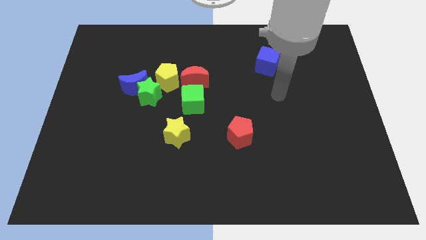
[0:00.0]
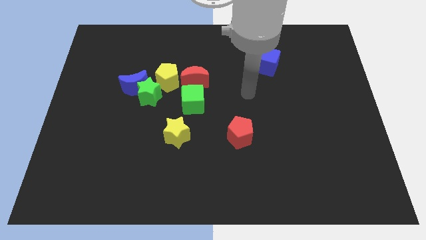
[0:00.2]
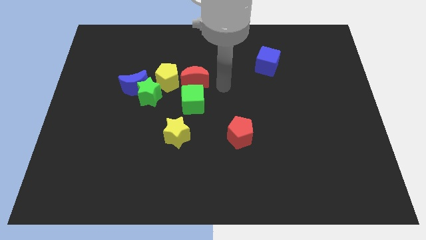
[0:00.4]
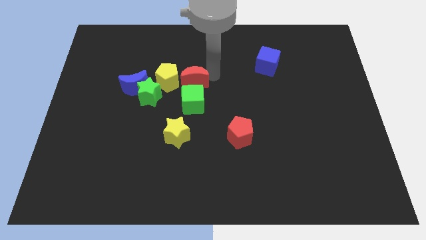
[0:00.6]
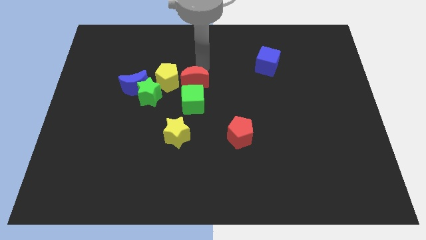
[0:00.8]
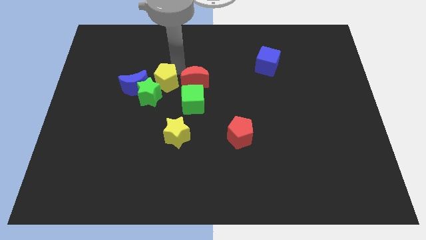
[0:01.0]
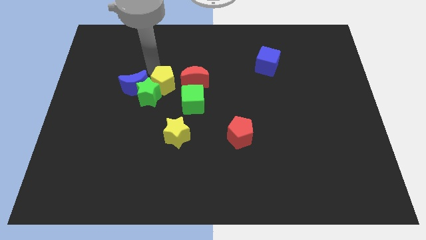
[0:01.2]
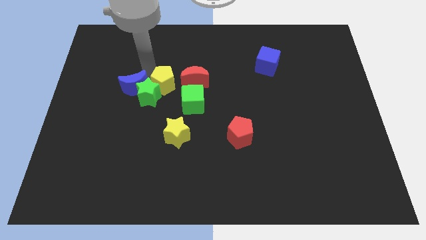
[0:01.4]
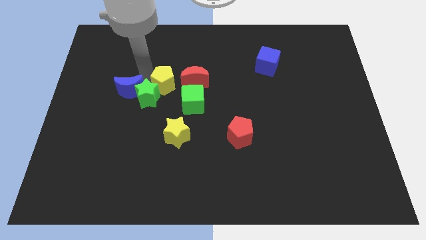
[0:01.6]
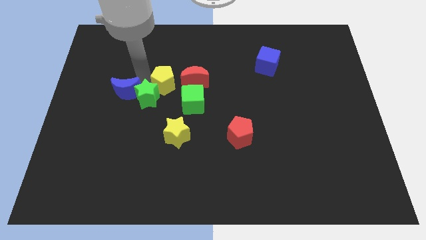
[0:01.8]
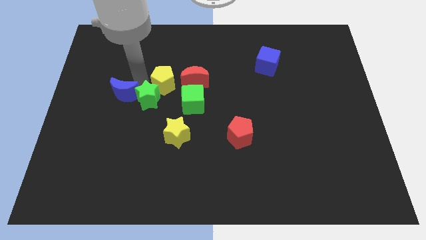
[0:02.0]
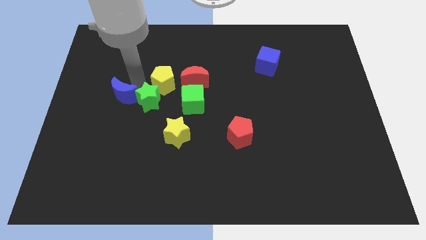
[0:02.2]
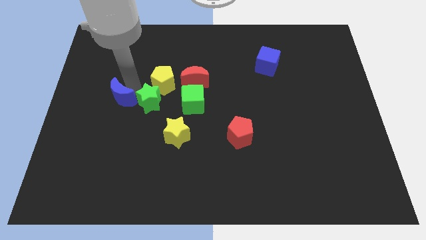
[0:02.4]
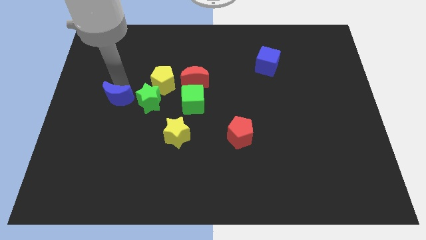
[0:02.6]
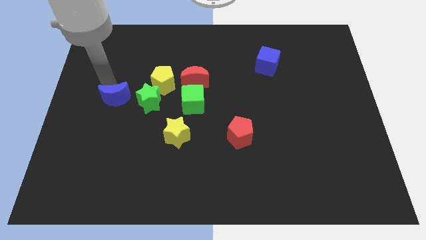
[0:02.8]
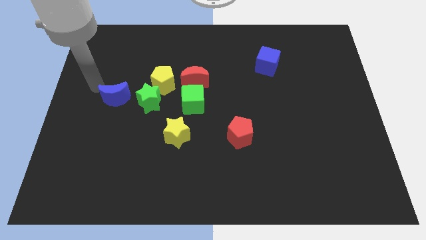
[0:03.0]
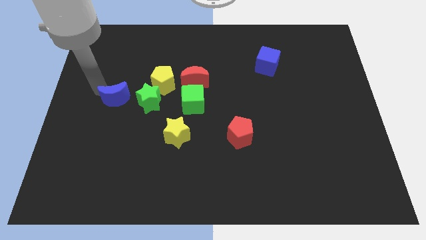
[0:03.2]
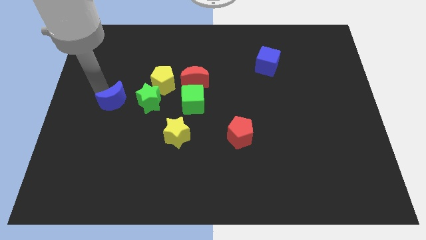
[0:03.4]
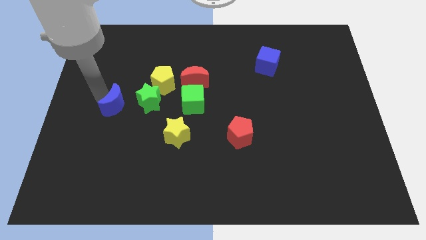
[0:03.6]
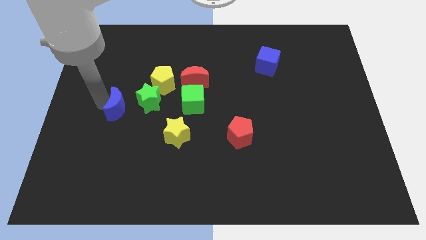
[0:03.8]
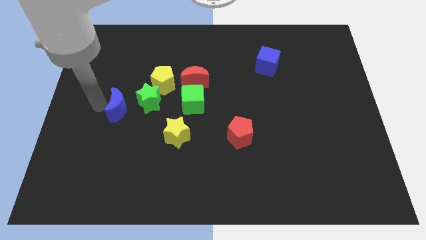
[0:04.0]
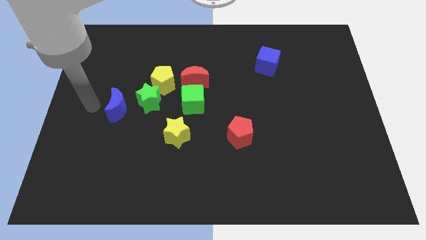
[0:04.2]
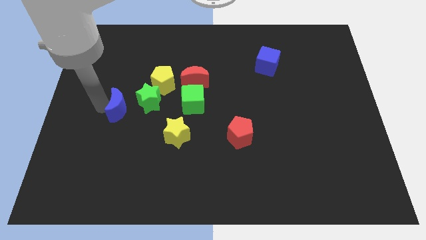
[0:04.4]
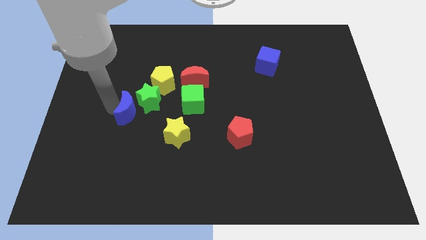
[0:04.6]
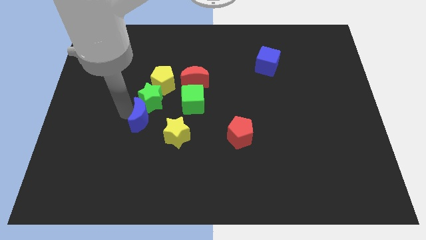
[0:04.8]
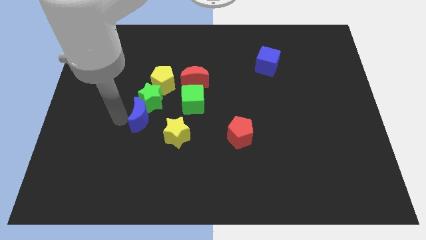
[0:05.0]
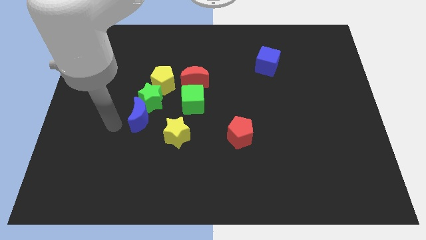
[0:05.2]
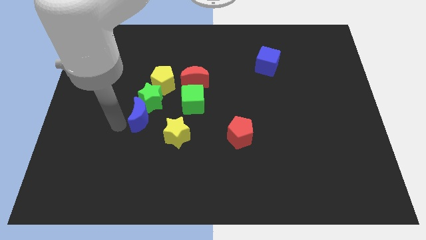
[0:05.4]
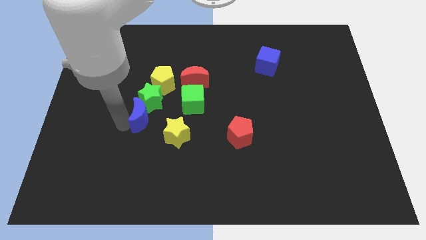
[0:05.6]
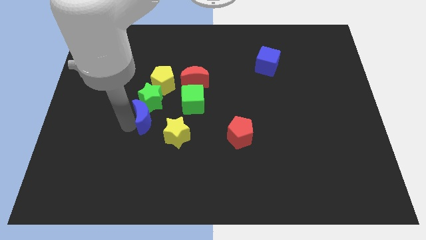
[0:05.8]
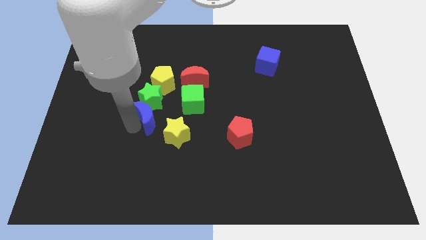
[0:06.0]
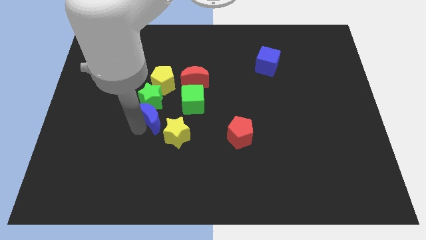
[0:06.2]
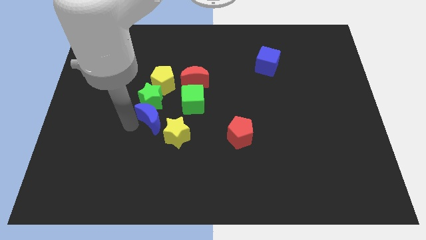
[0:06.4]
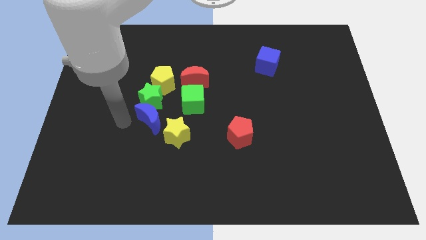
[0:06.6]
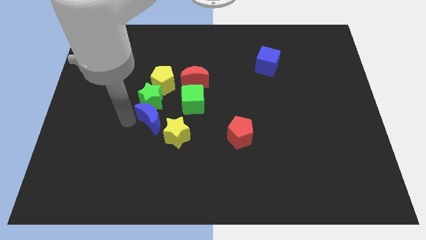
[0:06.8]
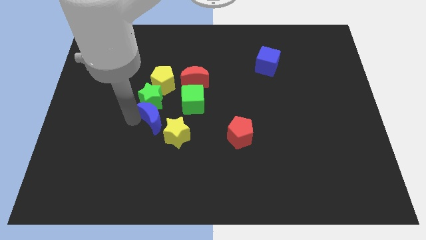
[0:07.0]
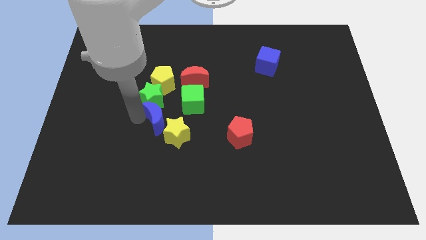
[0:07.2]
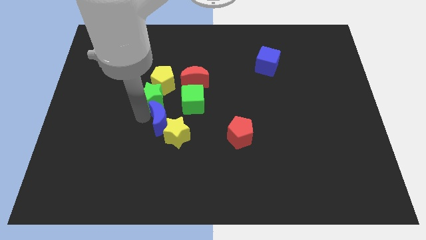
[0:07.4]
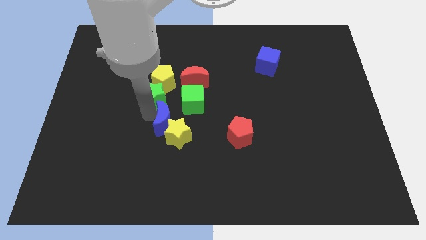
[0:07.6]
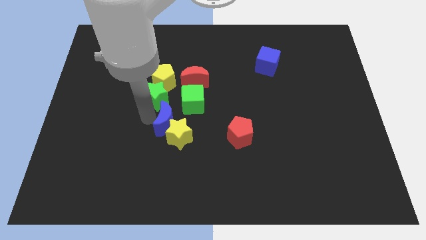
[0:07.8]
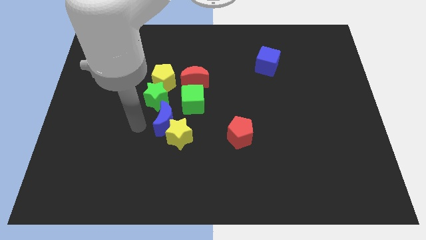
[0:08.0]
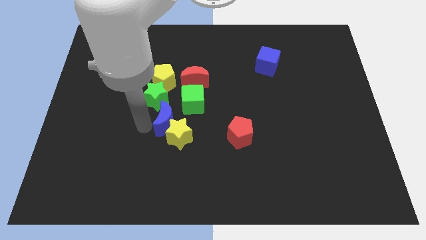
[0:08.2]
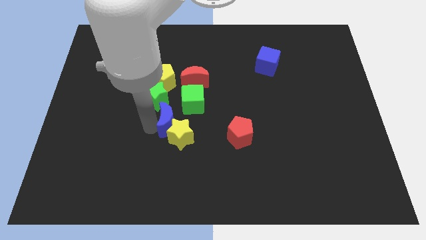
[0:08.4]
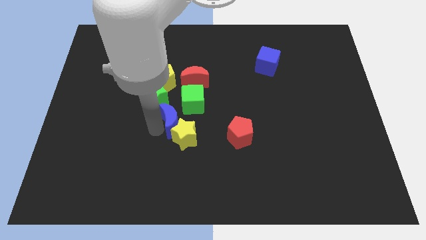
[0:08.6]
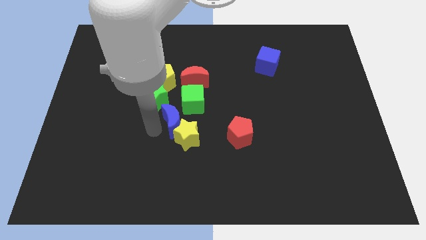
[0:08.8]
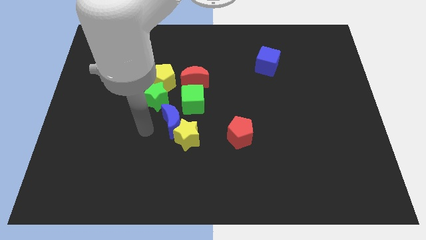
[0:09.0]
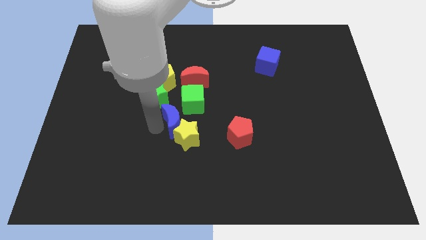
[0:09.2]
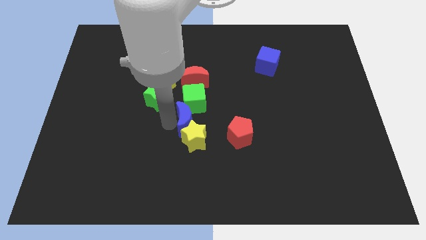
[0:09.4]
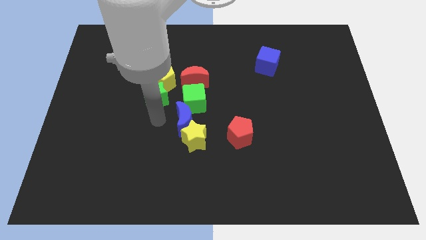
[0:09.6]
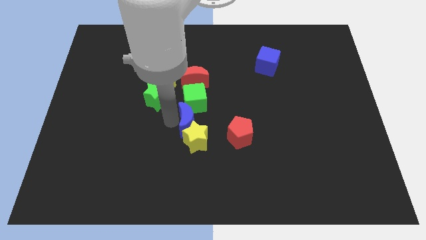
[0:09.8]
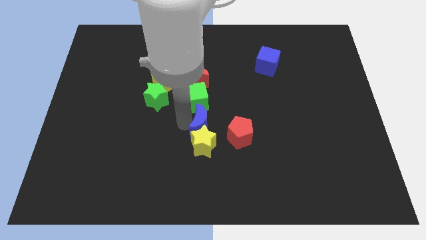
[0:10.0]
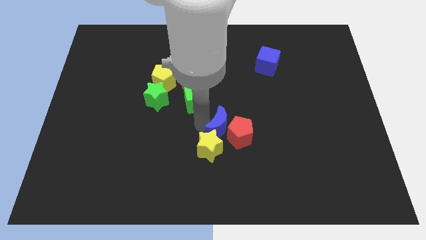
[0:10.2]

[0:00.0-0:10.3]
slide the blue moon close to the red pentagon

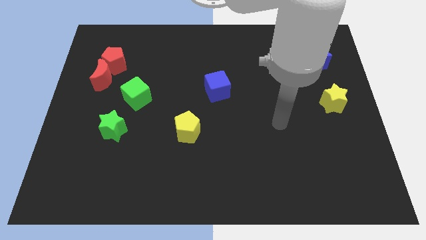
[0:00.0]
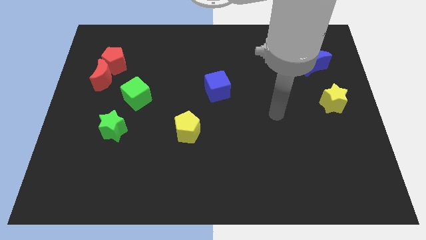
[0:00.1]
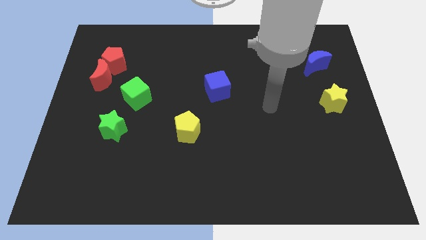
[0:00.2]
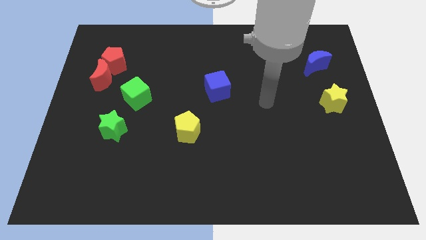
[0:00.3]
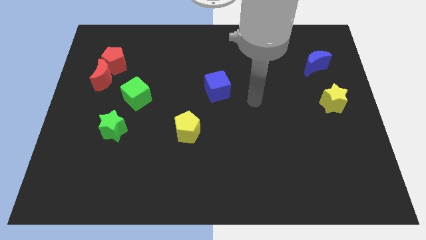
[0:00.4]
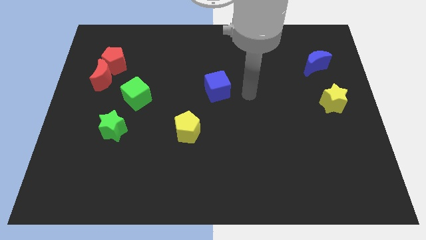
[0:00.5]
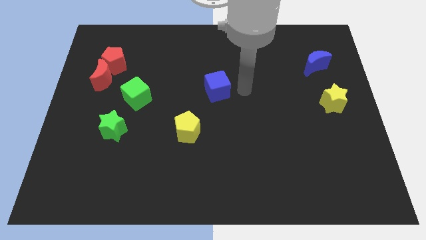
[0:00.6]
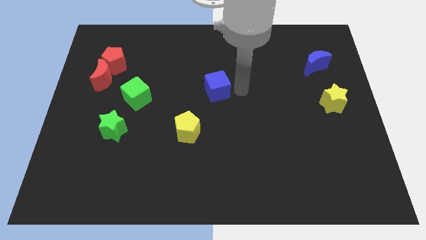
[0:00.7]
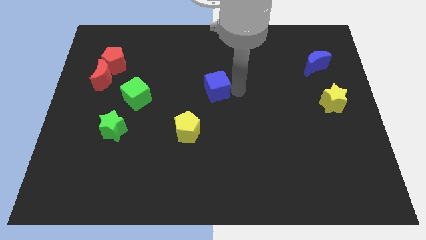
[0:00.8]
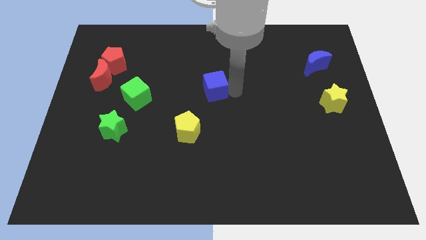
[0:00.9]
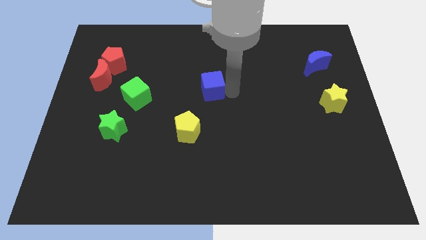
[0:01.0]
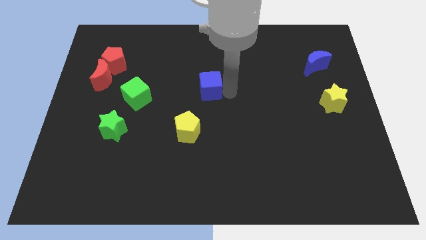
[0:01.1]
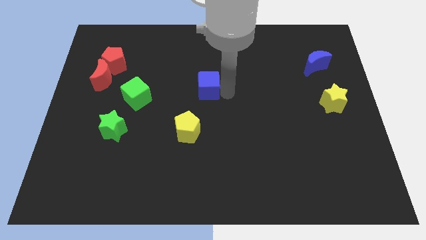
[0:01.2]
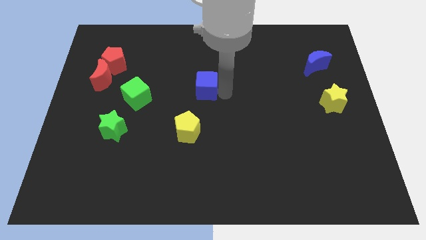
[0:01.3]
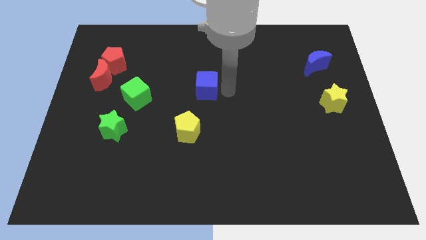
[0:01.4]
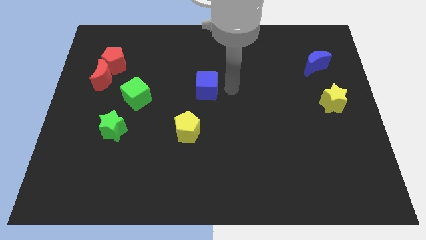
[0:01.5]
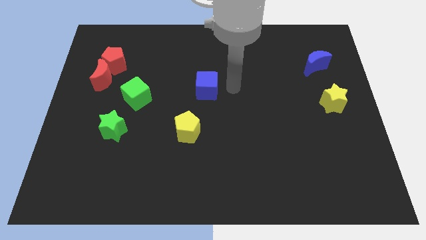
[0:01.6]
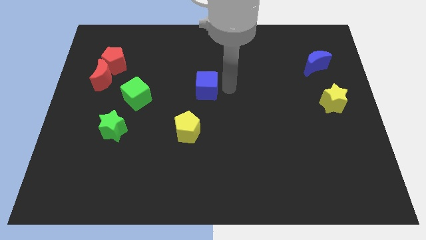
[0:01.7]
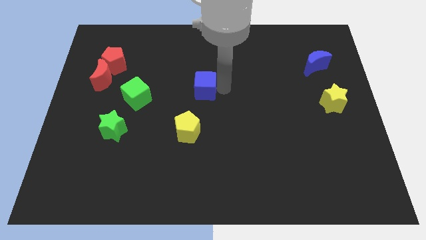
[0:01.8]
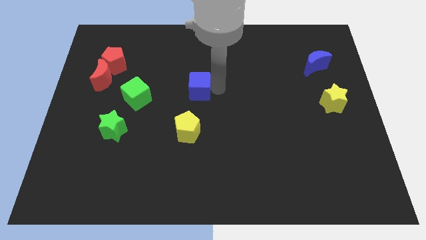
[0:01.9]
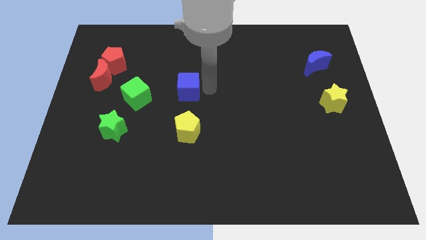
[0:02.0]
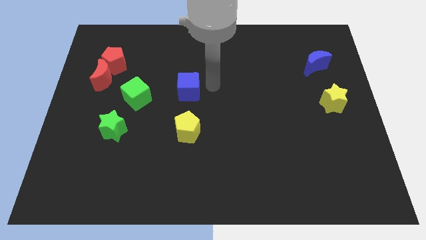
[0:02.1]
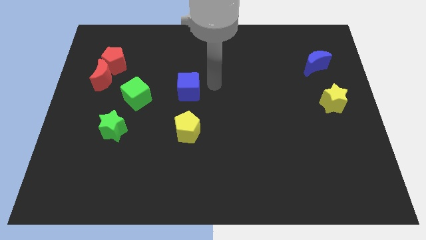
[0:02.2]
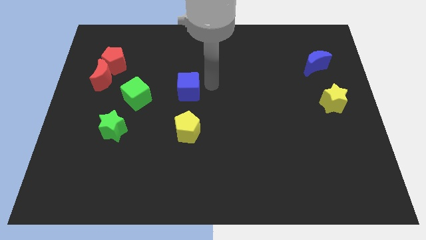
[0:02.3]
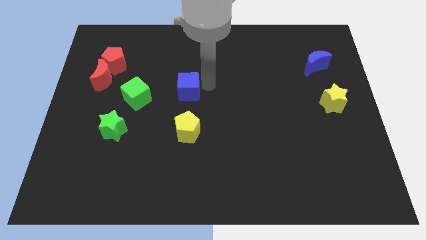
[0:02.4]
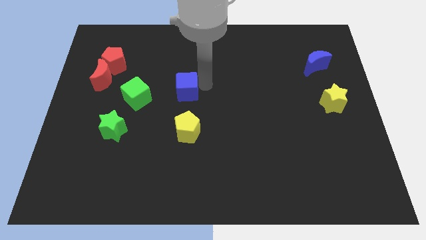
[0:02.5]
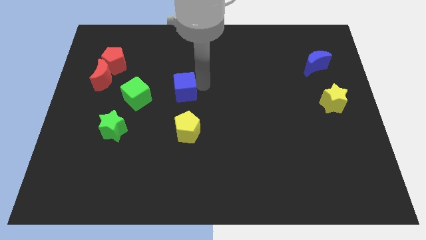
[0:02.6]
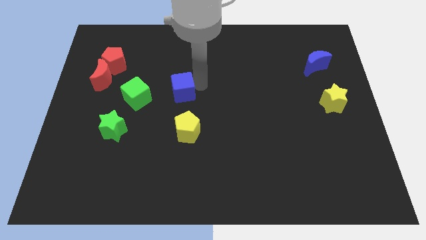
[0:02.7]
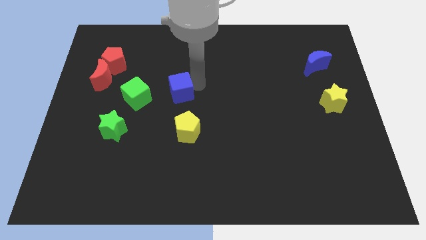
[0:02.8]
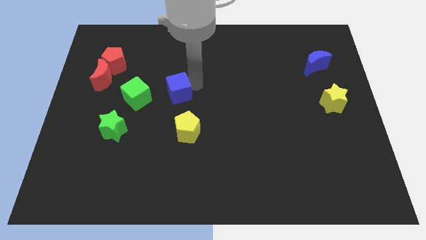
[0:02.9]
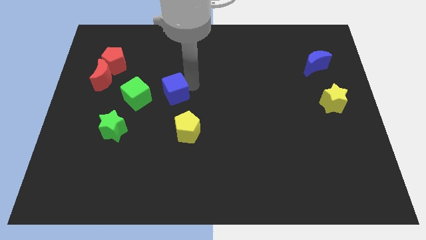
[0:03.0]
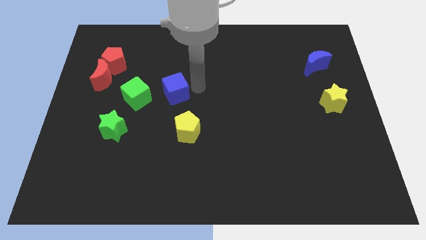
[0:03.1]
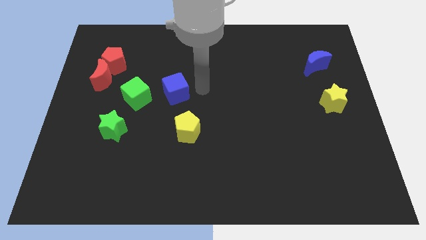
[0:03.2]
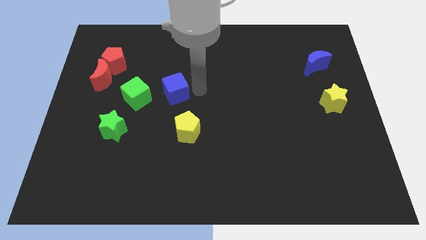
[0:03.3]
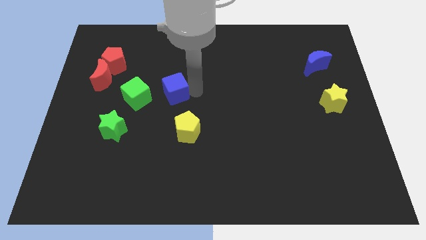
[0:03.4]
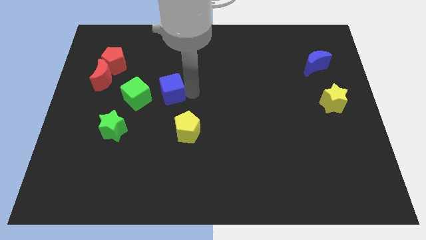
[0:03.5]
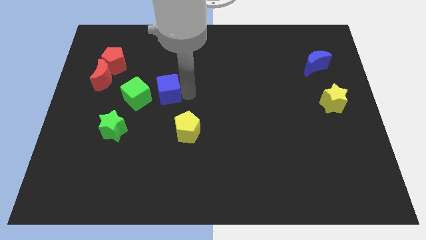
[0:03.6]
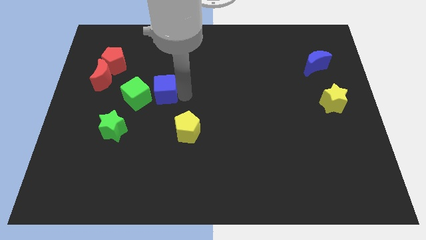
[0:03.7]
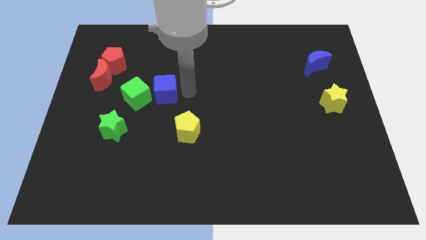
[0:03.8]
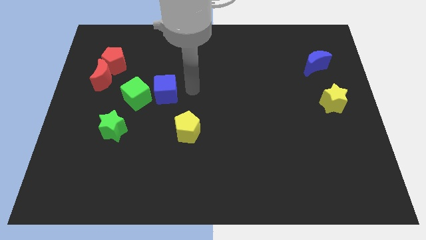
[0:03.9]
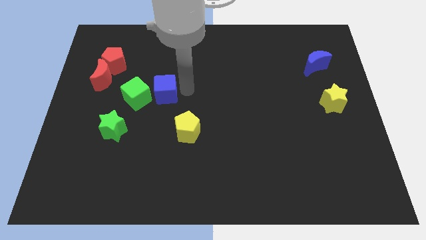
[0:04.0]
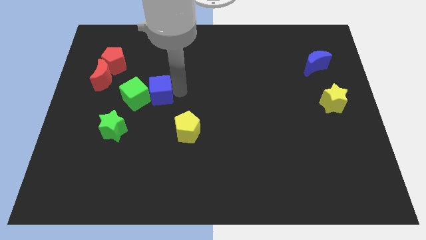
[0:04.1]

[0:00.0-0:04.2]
put the blue cube towards the green cube
